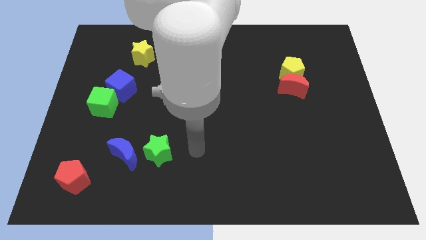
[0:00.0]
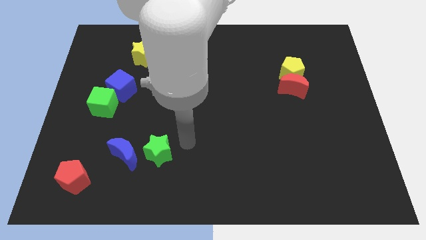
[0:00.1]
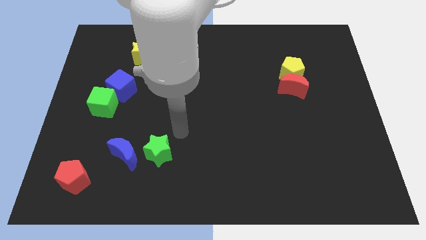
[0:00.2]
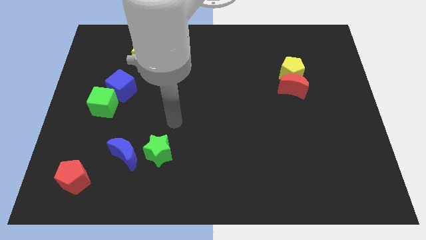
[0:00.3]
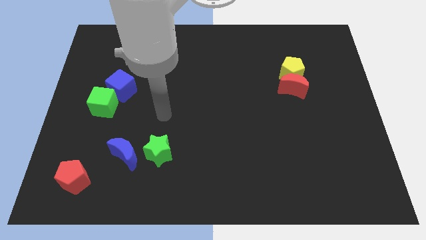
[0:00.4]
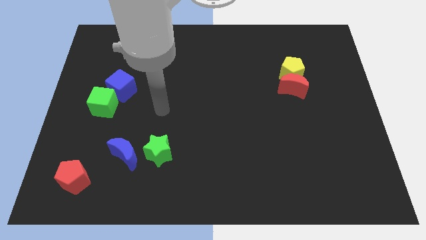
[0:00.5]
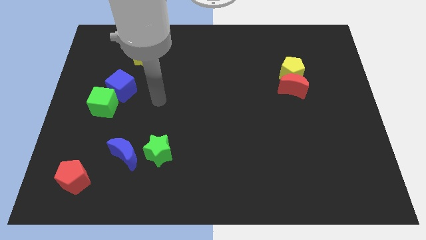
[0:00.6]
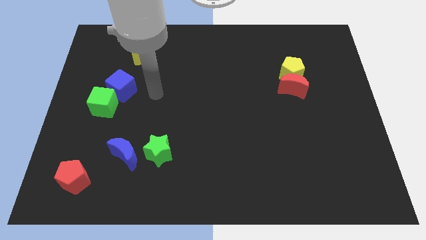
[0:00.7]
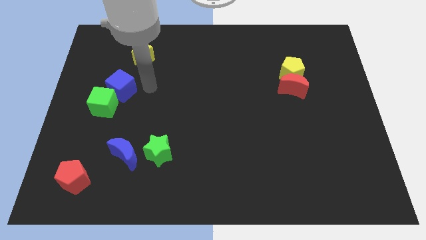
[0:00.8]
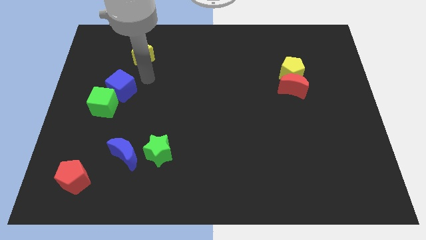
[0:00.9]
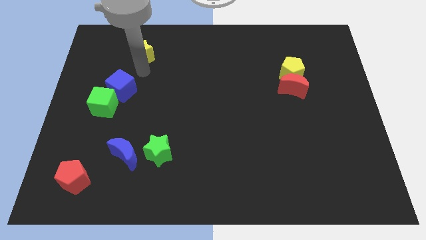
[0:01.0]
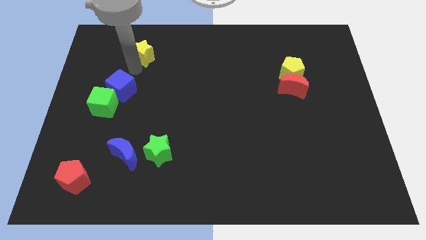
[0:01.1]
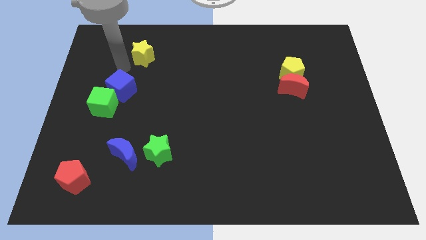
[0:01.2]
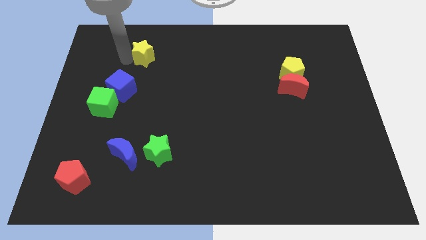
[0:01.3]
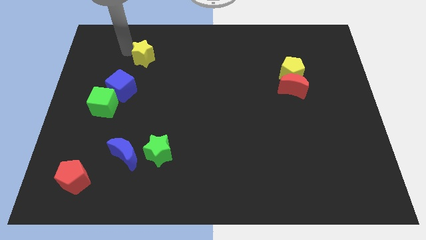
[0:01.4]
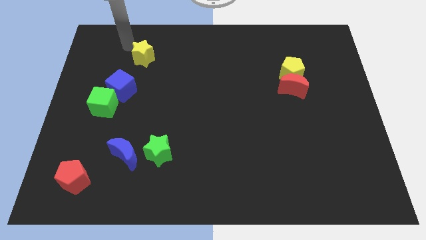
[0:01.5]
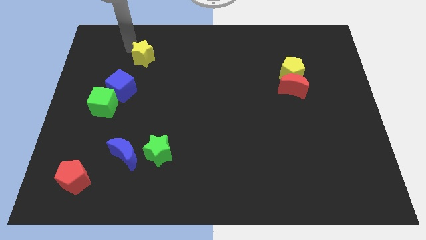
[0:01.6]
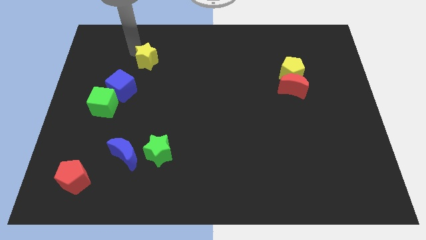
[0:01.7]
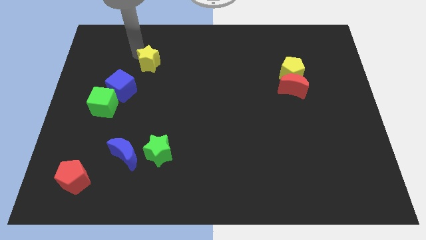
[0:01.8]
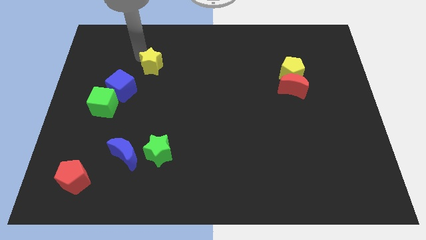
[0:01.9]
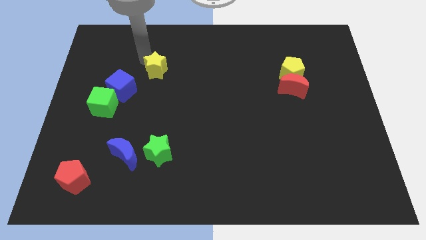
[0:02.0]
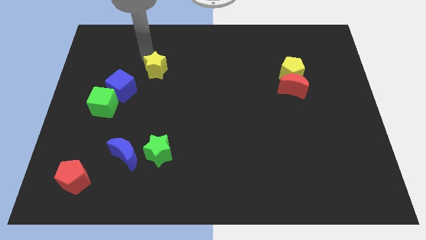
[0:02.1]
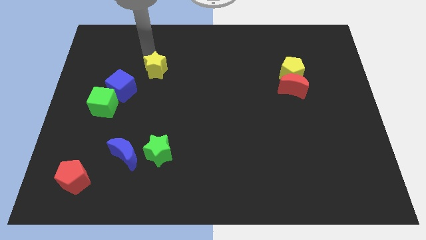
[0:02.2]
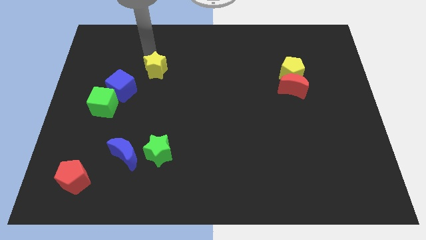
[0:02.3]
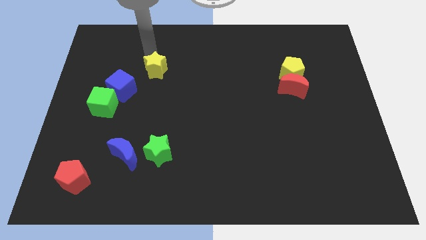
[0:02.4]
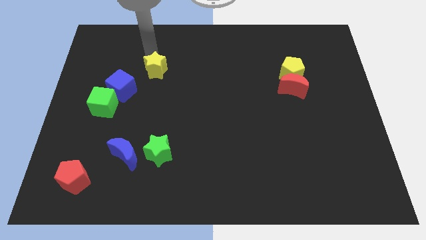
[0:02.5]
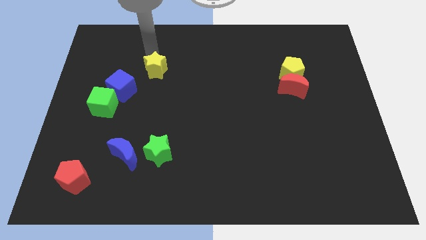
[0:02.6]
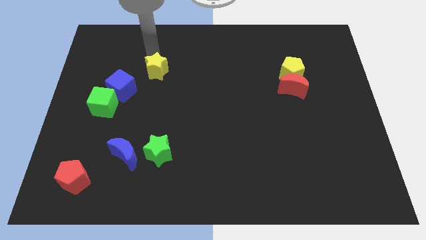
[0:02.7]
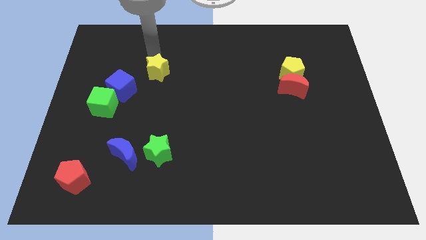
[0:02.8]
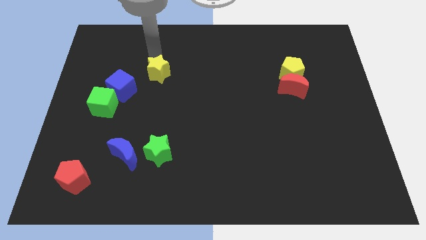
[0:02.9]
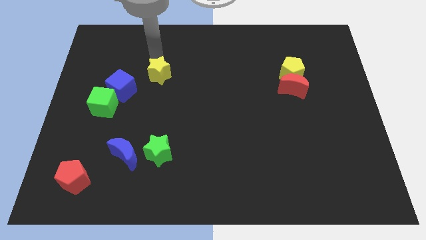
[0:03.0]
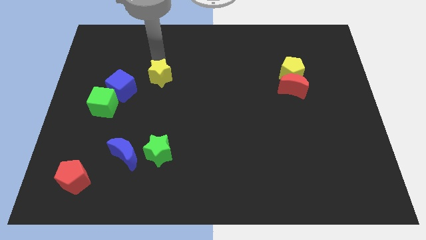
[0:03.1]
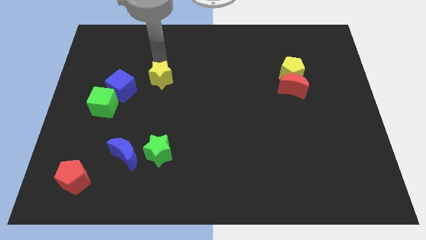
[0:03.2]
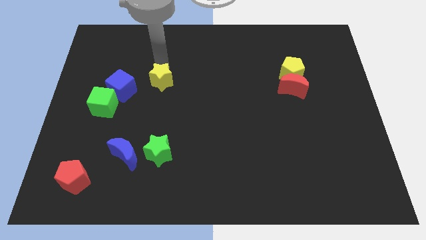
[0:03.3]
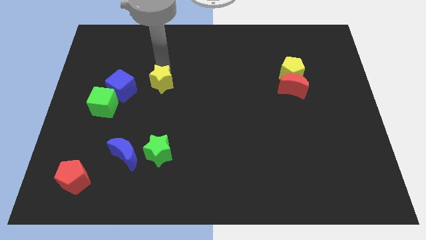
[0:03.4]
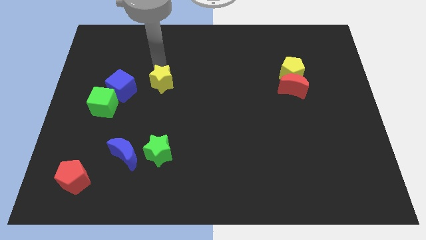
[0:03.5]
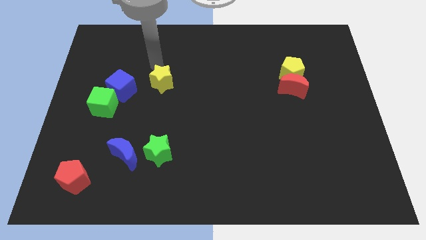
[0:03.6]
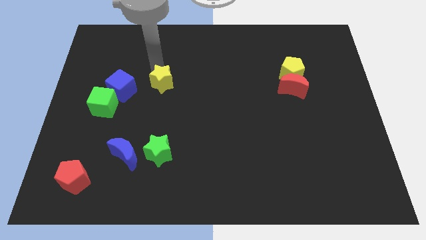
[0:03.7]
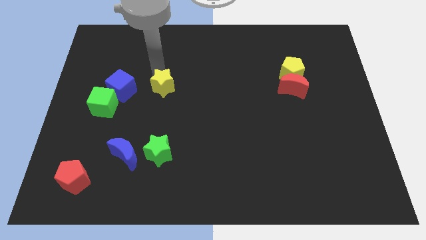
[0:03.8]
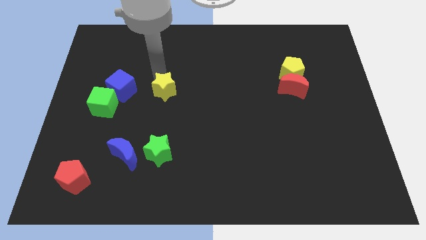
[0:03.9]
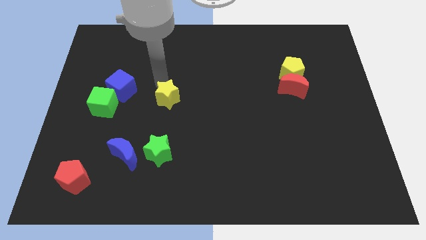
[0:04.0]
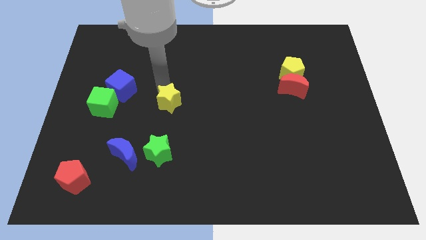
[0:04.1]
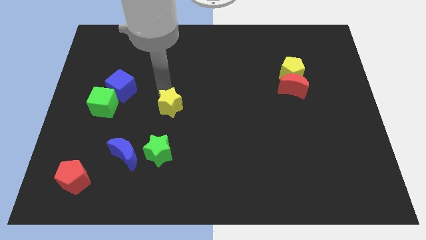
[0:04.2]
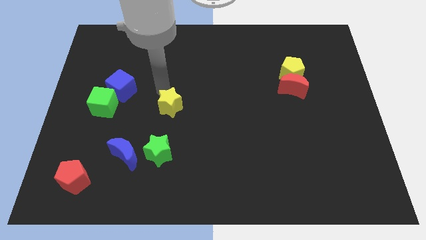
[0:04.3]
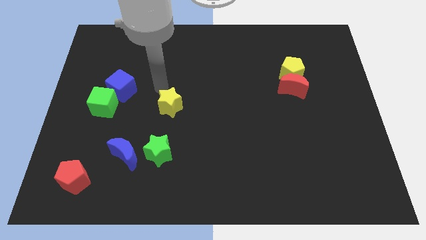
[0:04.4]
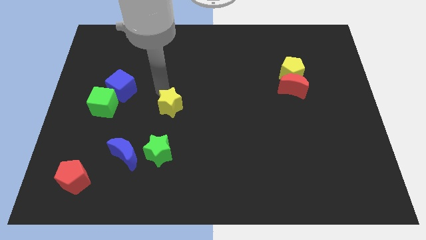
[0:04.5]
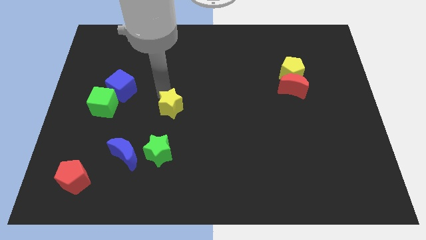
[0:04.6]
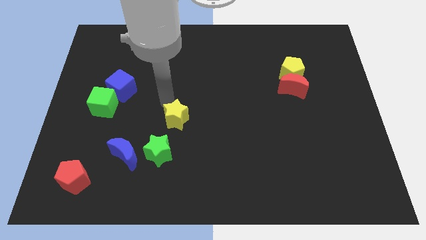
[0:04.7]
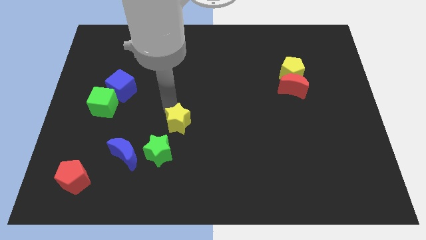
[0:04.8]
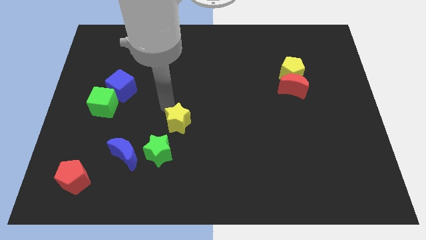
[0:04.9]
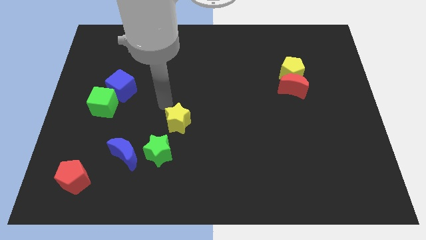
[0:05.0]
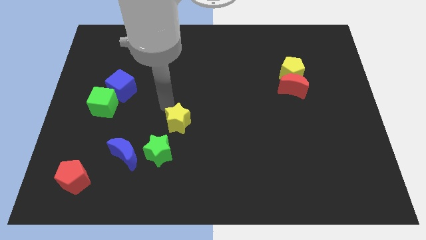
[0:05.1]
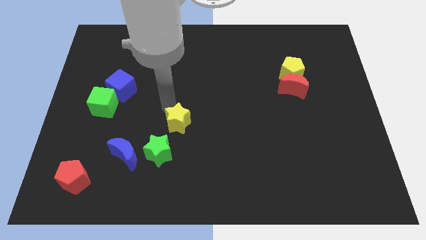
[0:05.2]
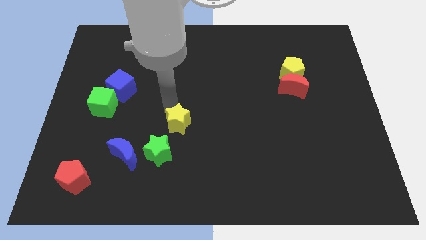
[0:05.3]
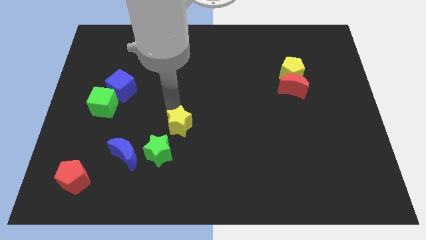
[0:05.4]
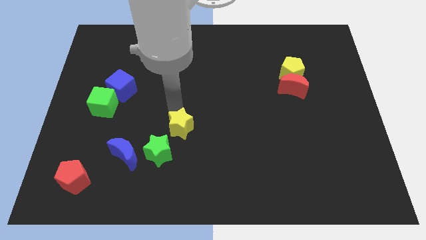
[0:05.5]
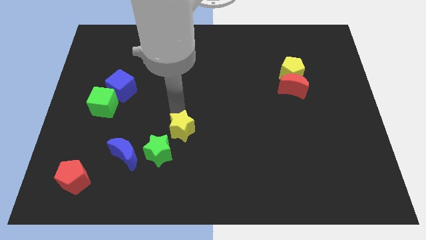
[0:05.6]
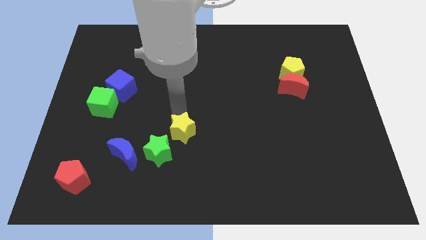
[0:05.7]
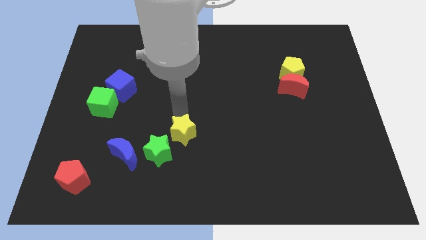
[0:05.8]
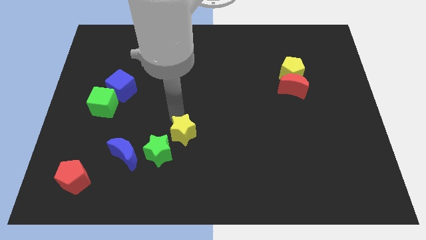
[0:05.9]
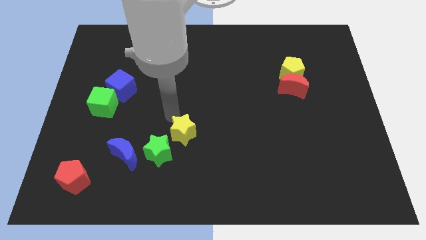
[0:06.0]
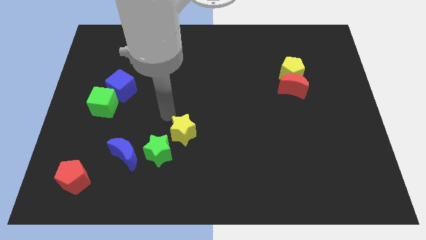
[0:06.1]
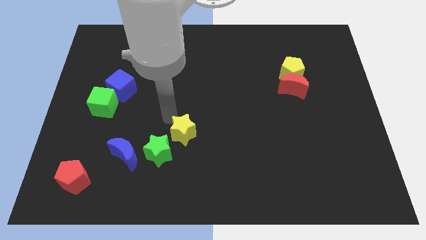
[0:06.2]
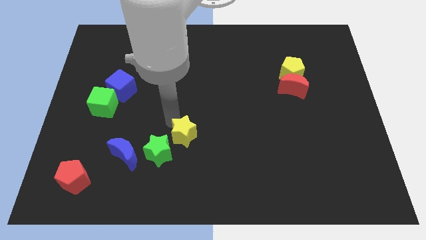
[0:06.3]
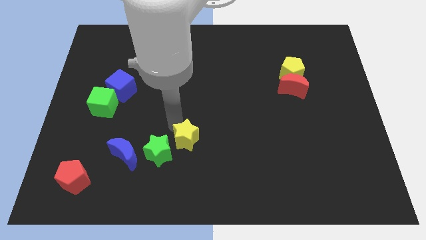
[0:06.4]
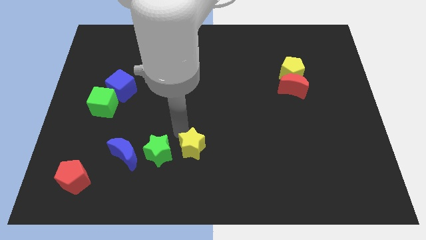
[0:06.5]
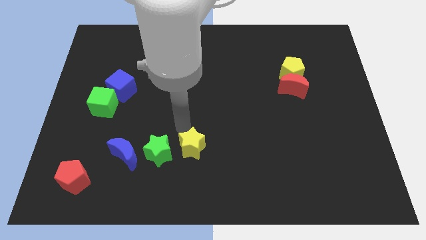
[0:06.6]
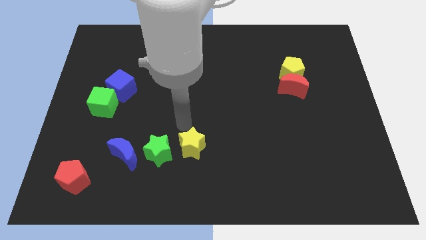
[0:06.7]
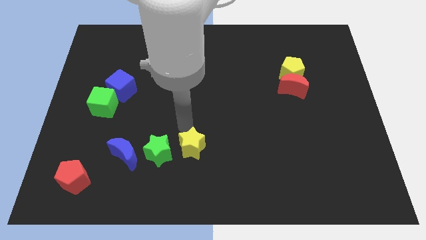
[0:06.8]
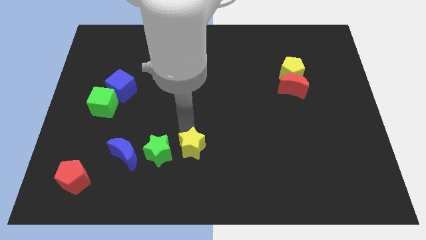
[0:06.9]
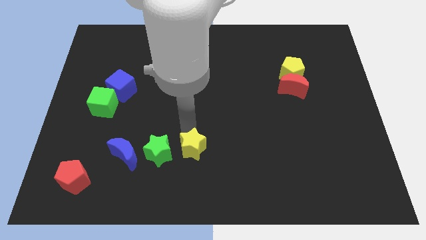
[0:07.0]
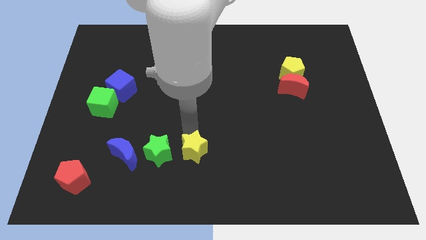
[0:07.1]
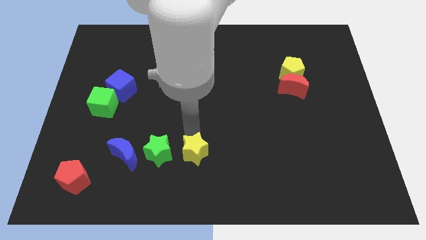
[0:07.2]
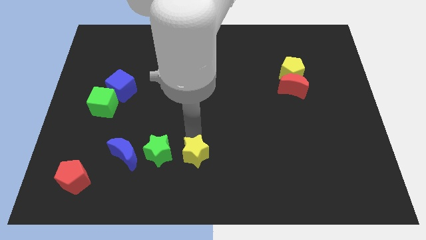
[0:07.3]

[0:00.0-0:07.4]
slide the yellow star to the bottom
